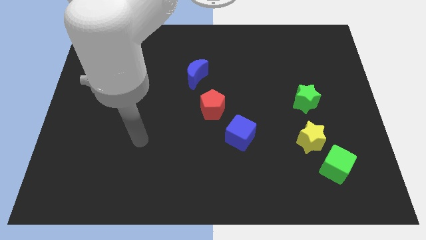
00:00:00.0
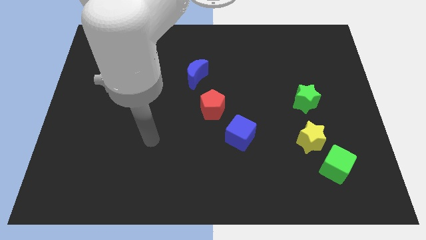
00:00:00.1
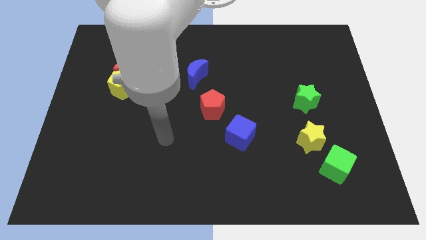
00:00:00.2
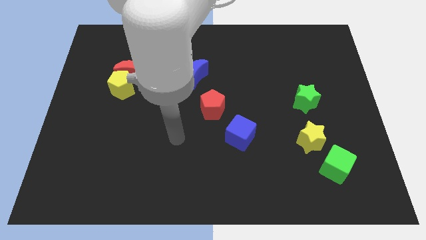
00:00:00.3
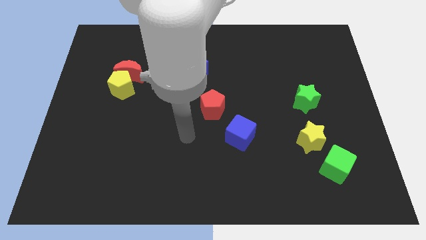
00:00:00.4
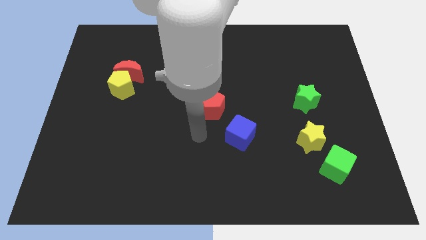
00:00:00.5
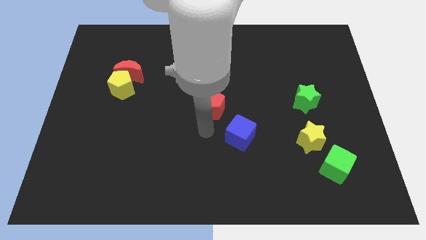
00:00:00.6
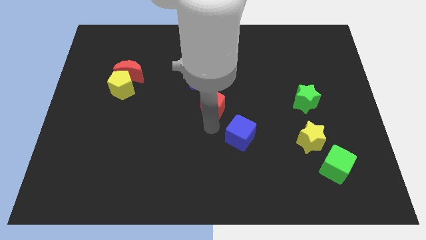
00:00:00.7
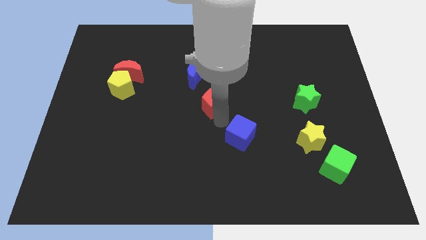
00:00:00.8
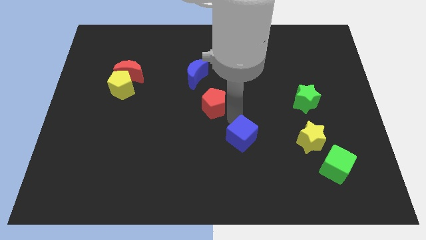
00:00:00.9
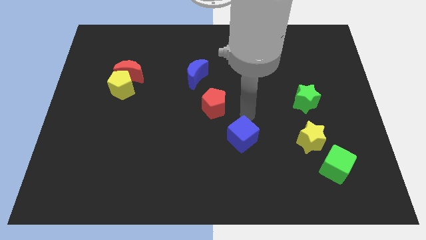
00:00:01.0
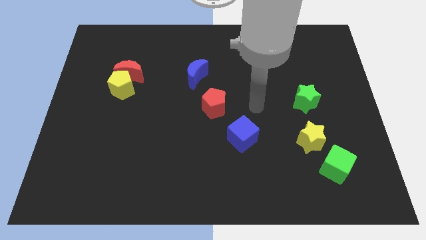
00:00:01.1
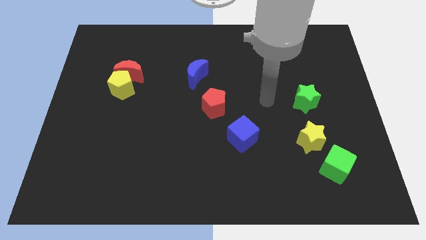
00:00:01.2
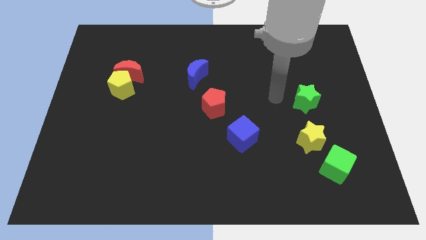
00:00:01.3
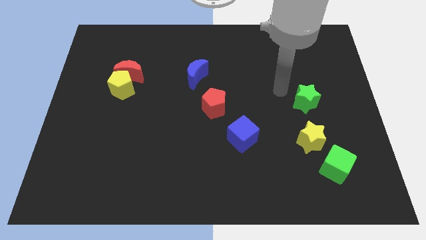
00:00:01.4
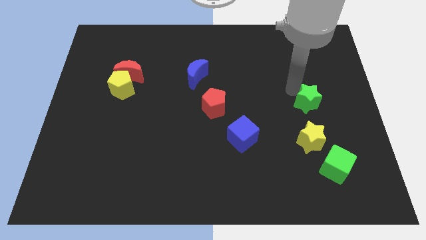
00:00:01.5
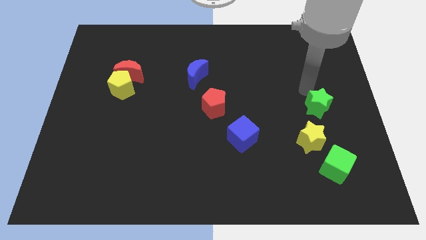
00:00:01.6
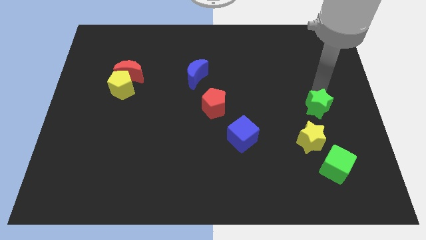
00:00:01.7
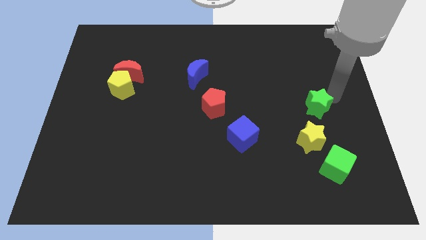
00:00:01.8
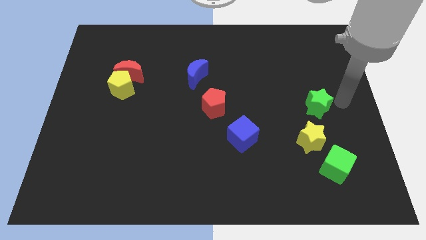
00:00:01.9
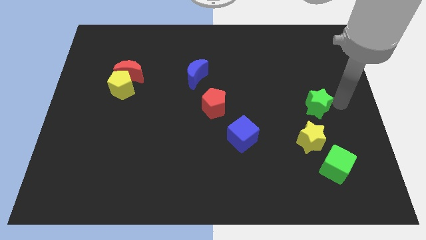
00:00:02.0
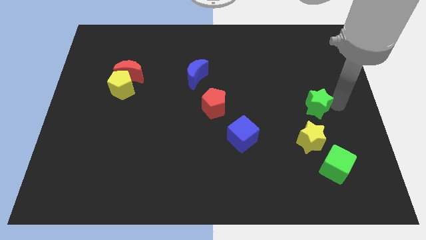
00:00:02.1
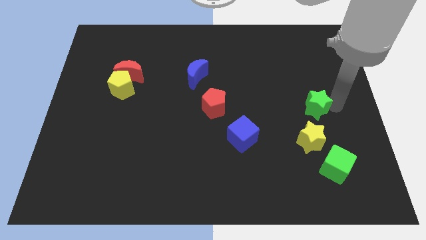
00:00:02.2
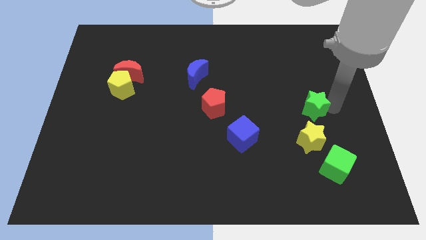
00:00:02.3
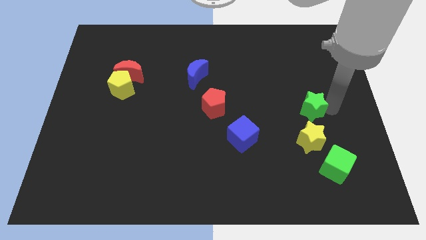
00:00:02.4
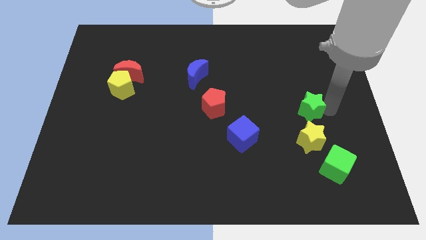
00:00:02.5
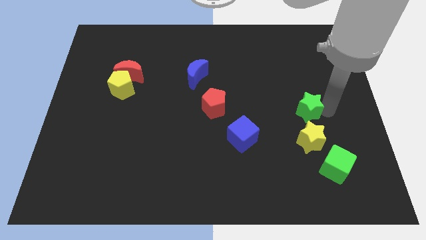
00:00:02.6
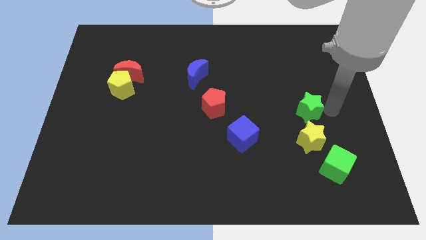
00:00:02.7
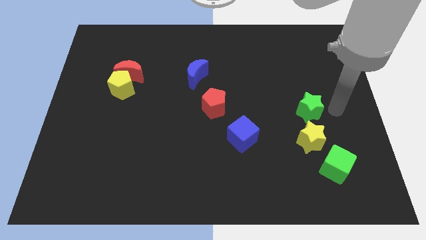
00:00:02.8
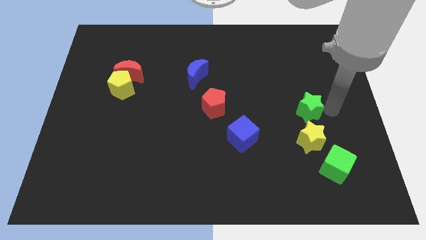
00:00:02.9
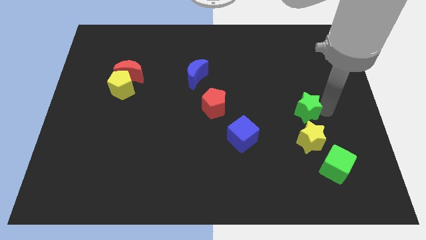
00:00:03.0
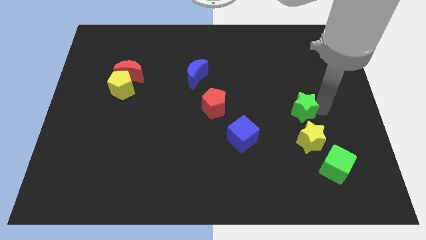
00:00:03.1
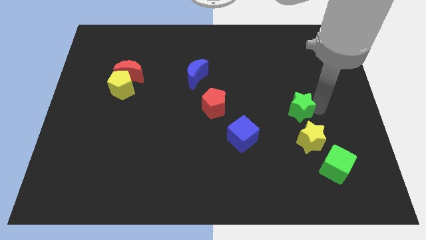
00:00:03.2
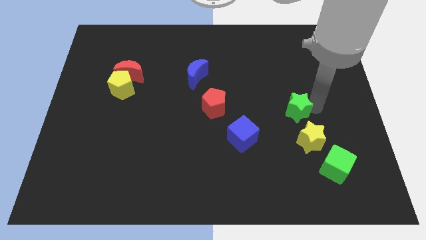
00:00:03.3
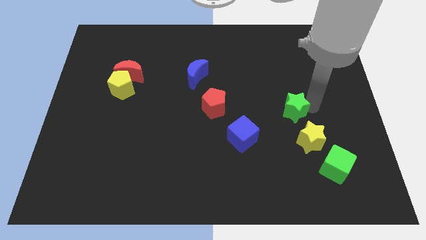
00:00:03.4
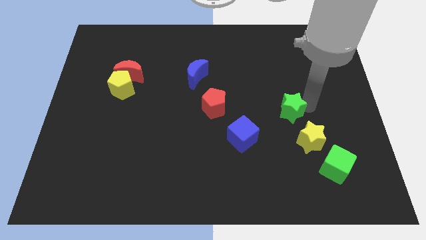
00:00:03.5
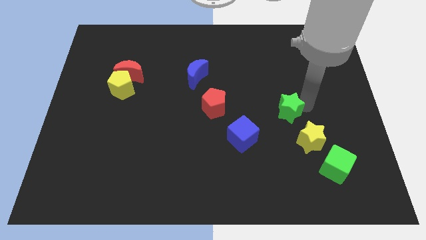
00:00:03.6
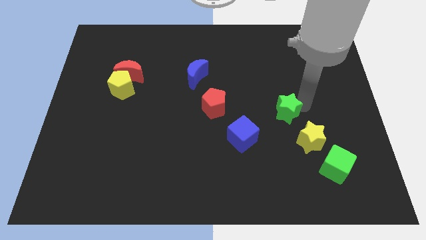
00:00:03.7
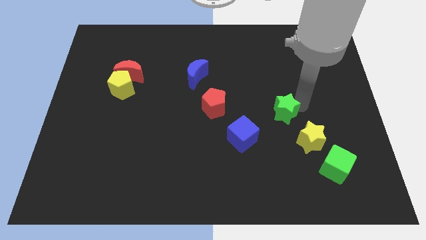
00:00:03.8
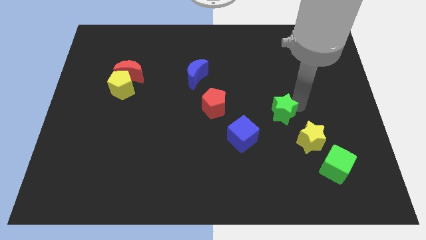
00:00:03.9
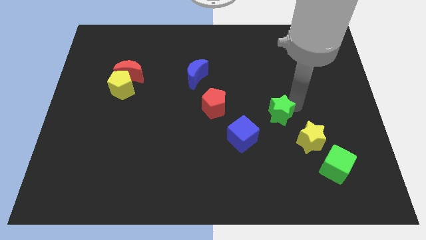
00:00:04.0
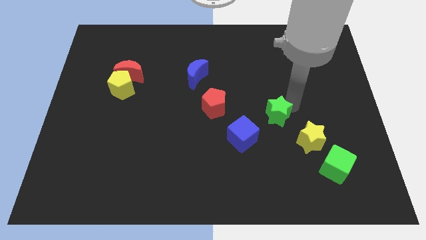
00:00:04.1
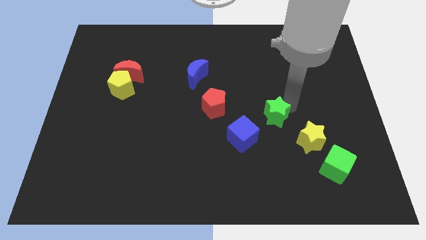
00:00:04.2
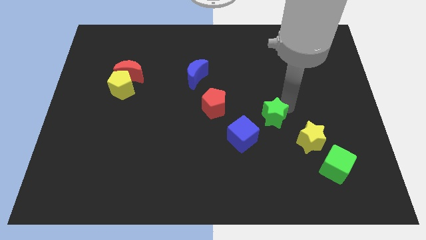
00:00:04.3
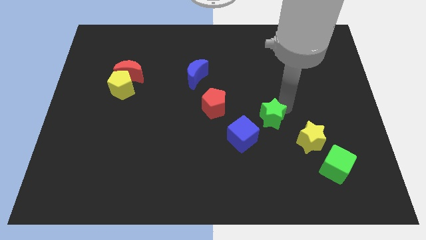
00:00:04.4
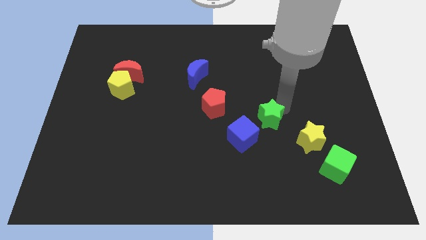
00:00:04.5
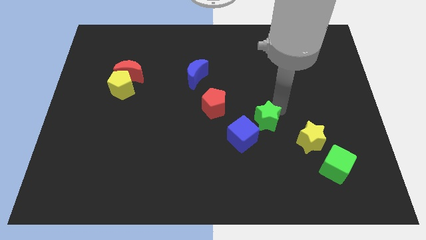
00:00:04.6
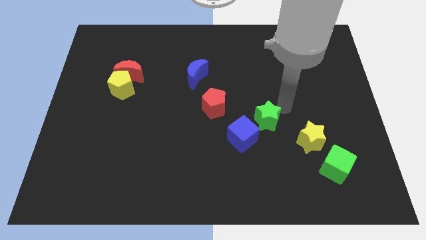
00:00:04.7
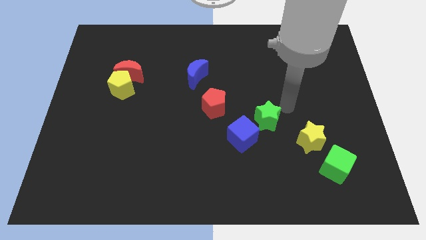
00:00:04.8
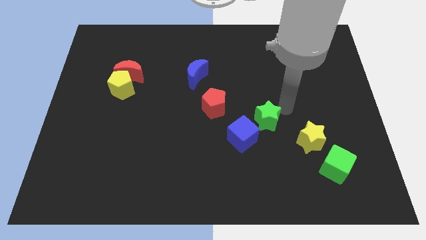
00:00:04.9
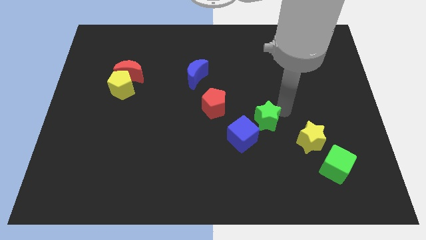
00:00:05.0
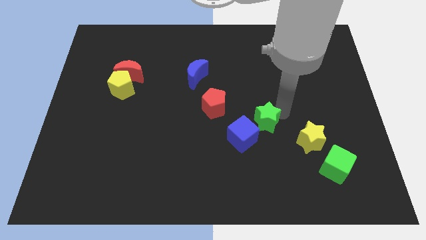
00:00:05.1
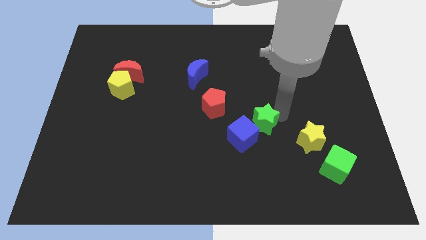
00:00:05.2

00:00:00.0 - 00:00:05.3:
slide the green star towards the blue cube

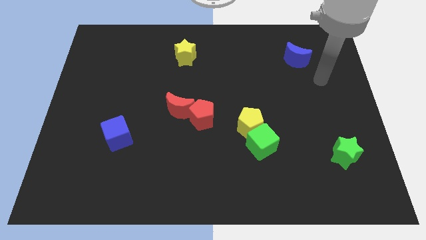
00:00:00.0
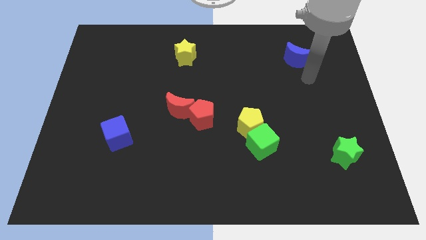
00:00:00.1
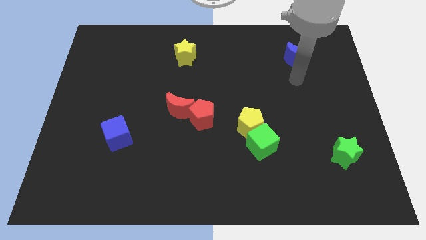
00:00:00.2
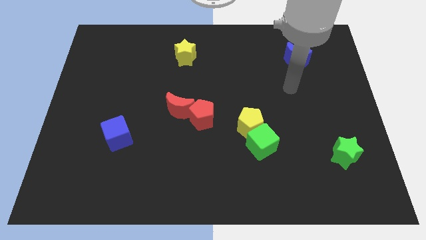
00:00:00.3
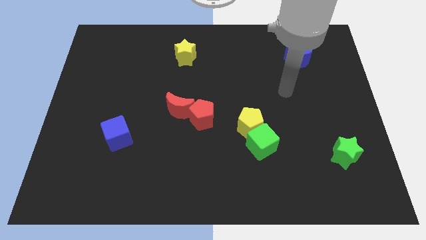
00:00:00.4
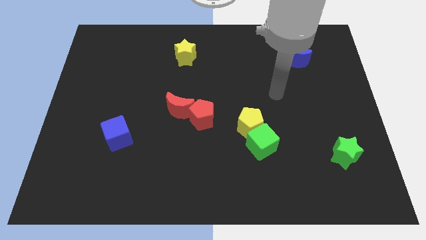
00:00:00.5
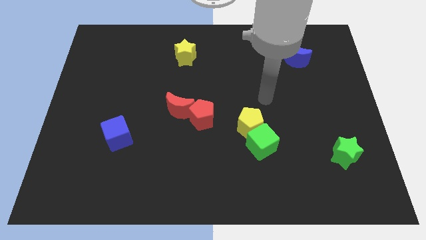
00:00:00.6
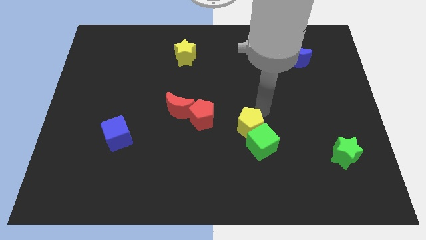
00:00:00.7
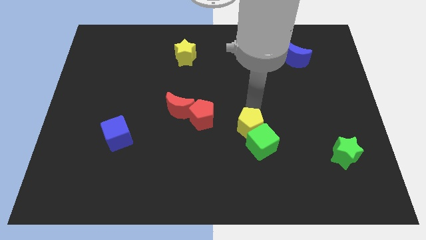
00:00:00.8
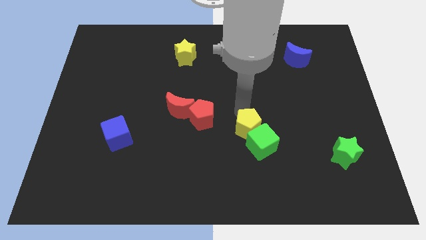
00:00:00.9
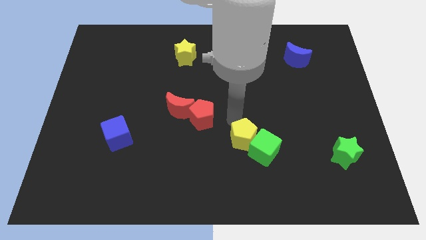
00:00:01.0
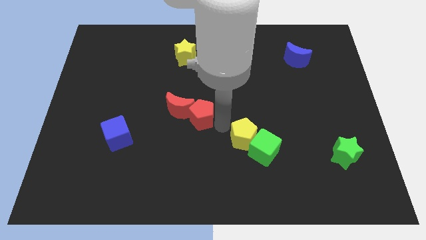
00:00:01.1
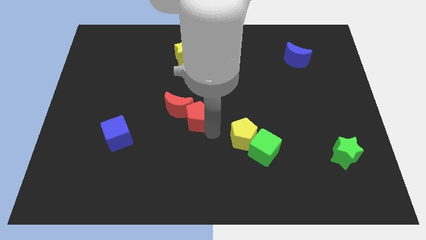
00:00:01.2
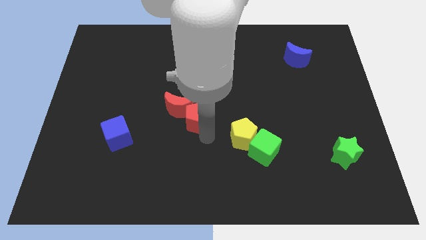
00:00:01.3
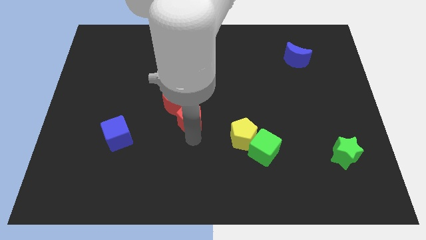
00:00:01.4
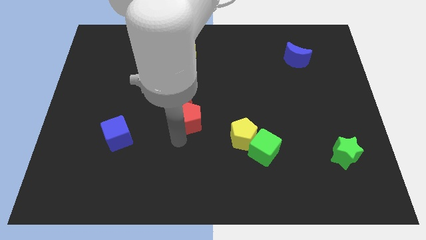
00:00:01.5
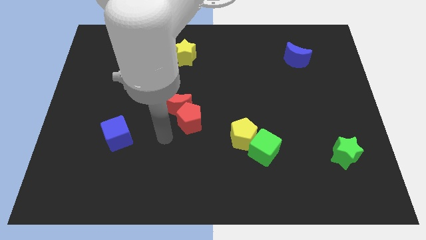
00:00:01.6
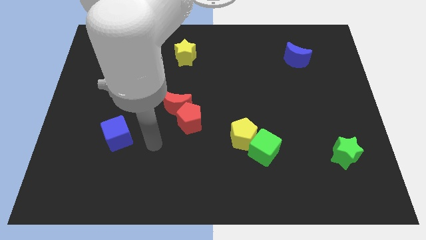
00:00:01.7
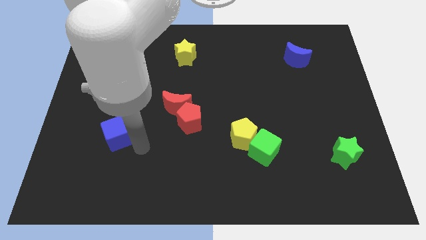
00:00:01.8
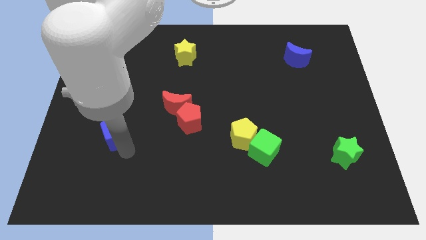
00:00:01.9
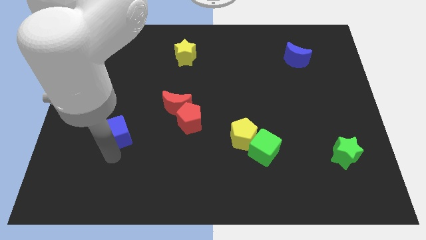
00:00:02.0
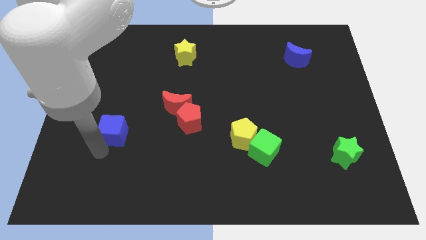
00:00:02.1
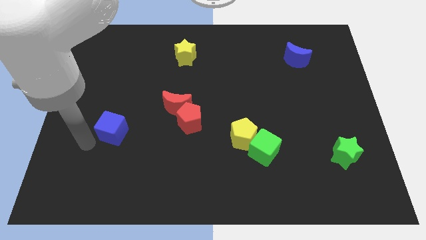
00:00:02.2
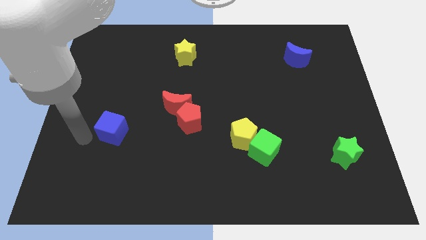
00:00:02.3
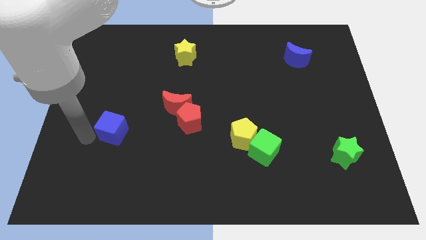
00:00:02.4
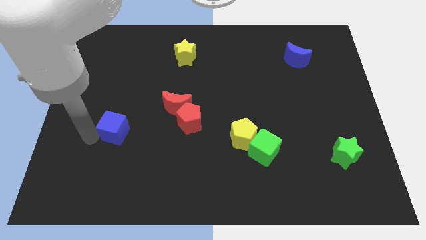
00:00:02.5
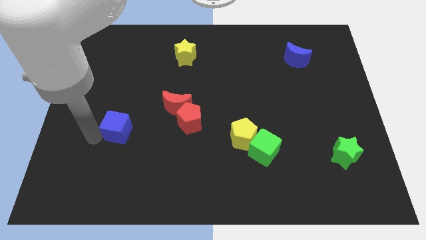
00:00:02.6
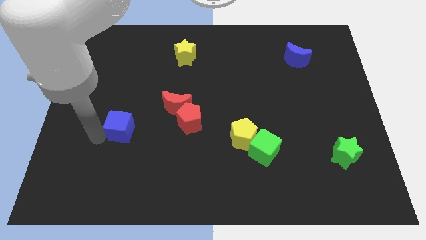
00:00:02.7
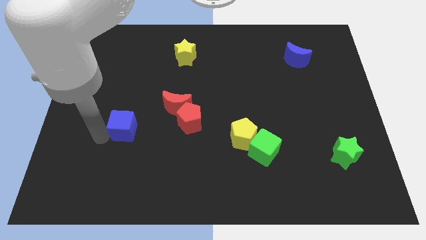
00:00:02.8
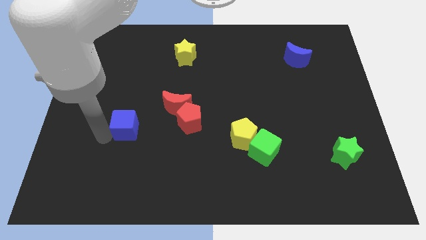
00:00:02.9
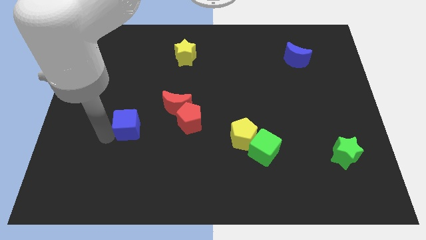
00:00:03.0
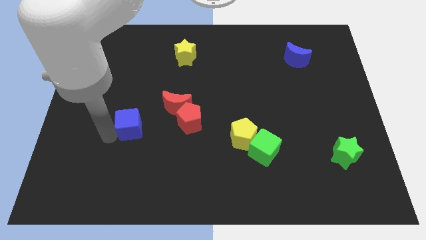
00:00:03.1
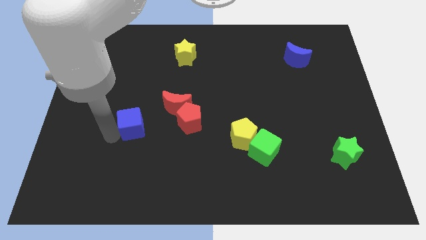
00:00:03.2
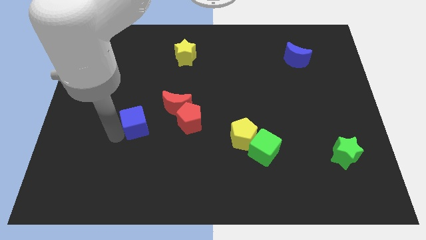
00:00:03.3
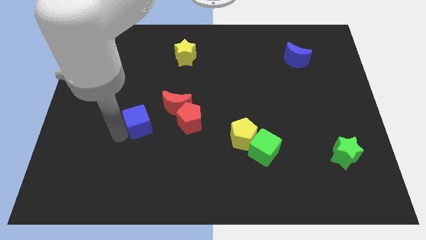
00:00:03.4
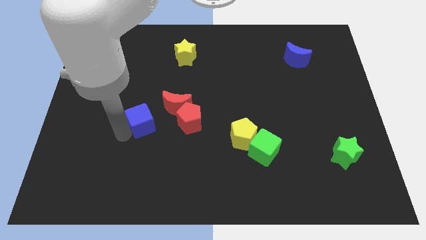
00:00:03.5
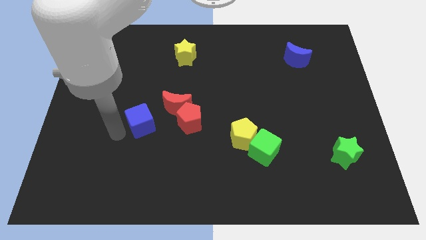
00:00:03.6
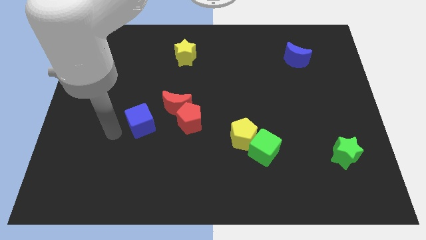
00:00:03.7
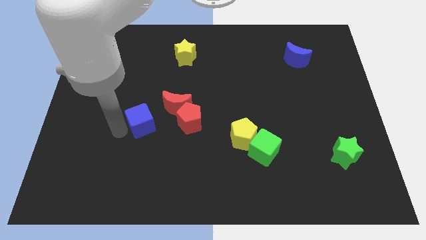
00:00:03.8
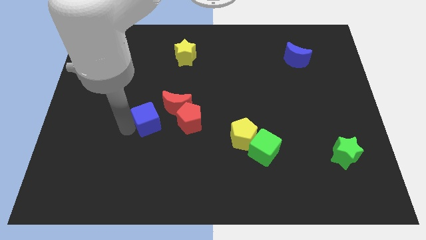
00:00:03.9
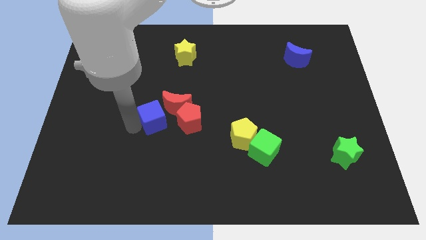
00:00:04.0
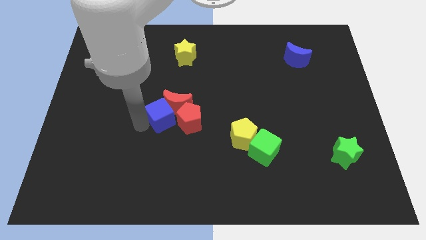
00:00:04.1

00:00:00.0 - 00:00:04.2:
move the blue cube next to the red moon
